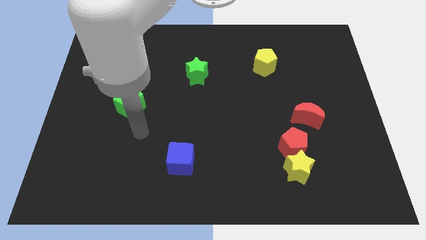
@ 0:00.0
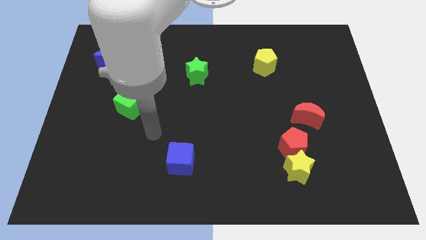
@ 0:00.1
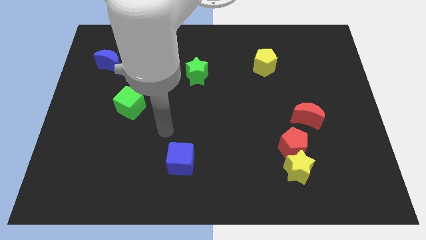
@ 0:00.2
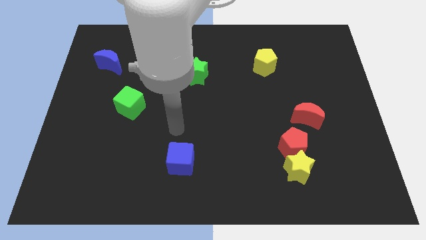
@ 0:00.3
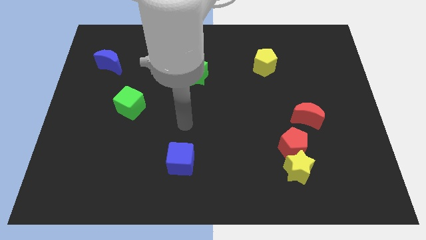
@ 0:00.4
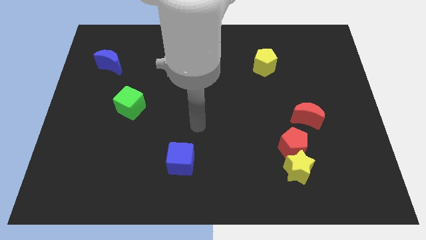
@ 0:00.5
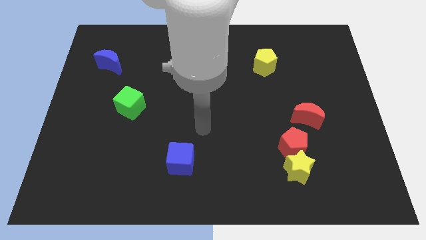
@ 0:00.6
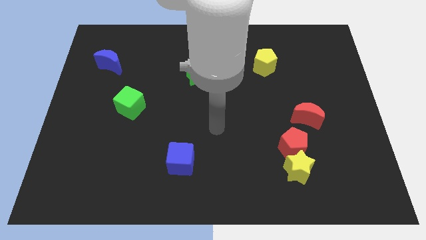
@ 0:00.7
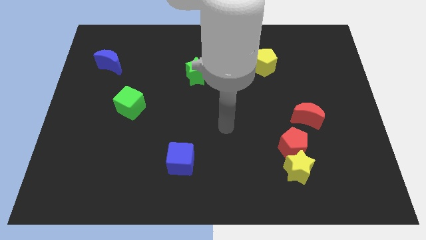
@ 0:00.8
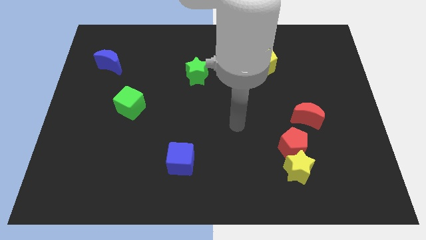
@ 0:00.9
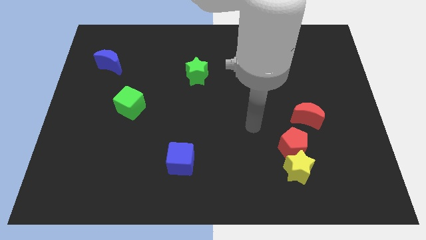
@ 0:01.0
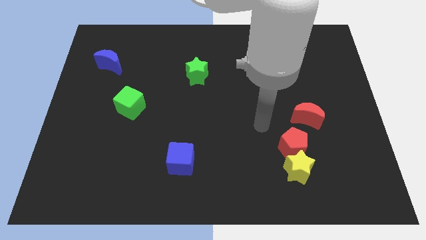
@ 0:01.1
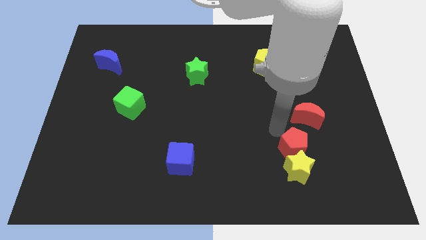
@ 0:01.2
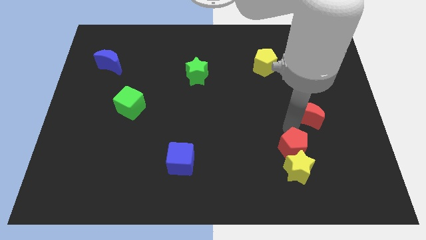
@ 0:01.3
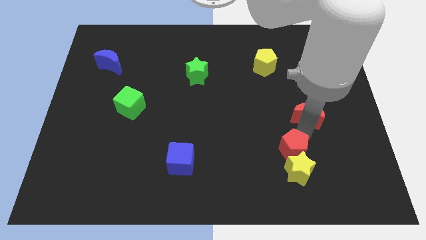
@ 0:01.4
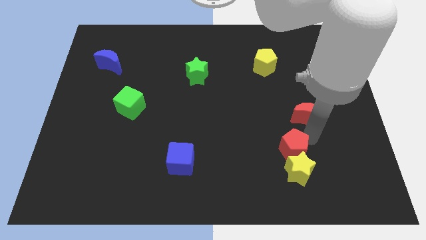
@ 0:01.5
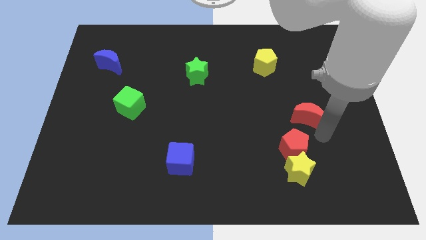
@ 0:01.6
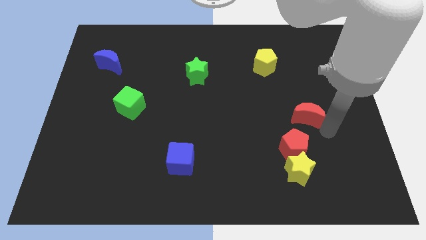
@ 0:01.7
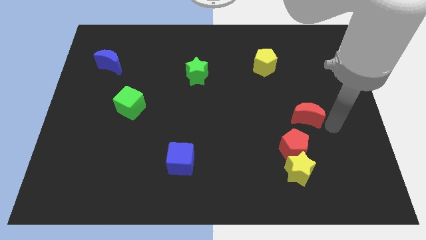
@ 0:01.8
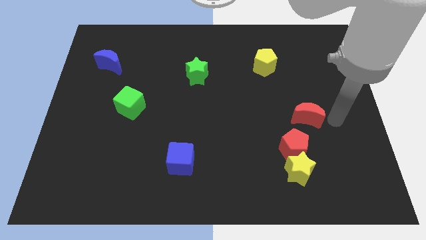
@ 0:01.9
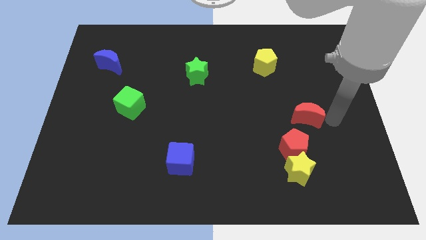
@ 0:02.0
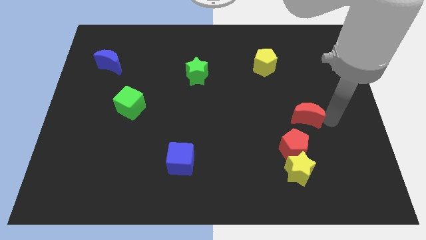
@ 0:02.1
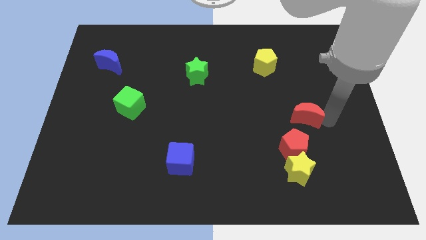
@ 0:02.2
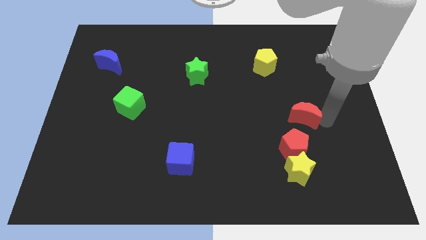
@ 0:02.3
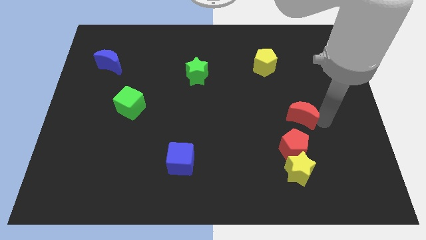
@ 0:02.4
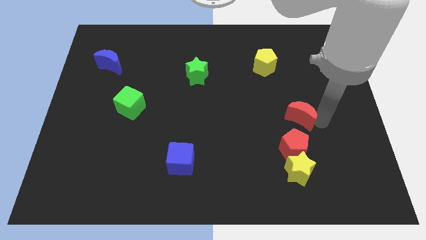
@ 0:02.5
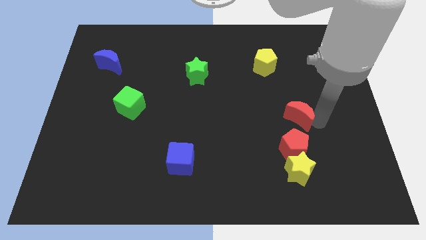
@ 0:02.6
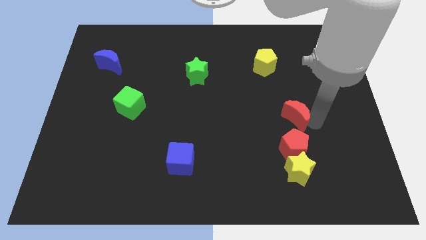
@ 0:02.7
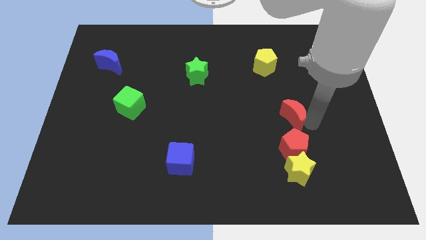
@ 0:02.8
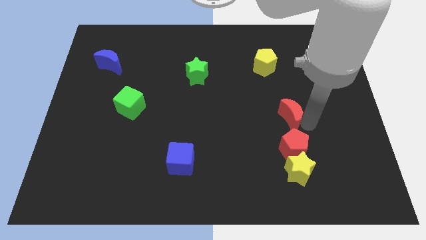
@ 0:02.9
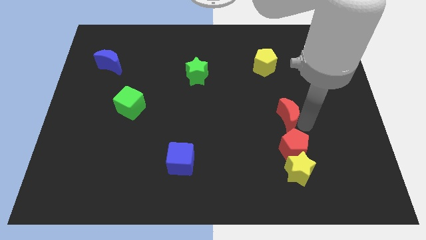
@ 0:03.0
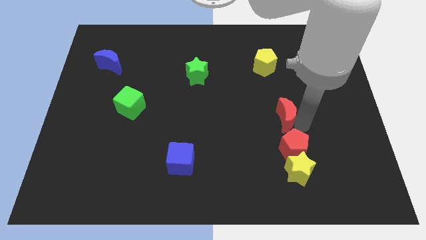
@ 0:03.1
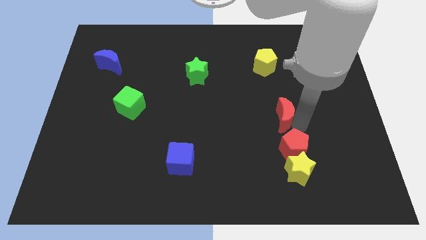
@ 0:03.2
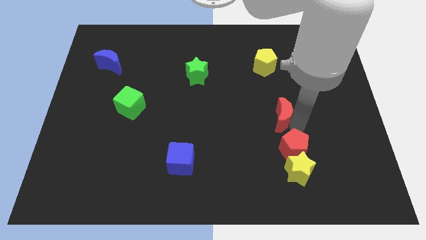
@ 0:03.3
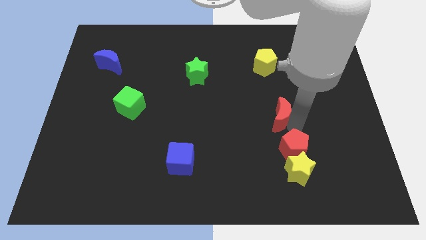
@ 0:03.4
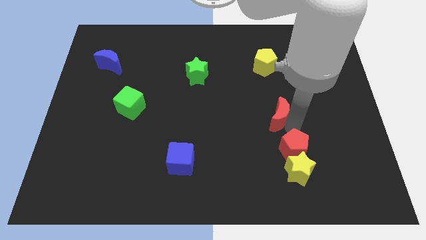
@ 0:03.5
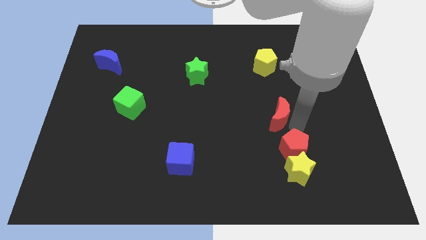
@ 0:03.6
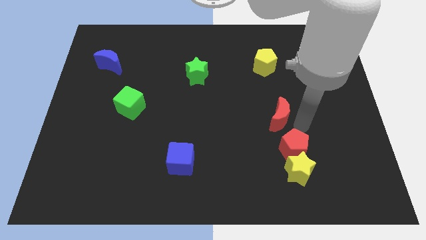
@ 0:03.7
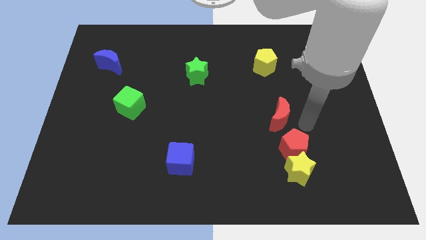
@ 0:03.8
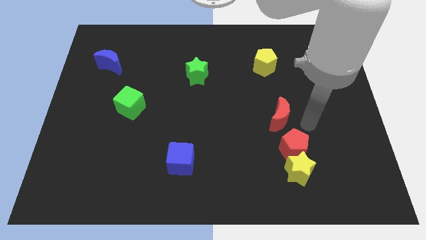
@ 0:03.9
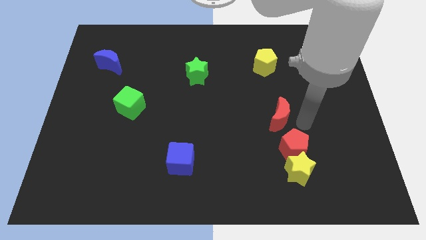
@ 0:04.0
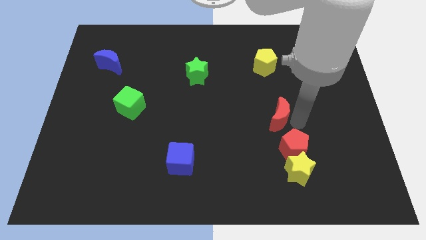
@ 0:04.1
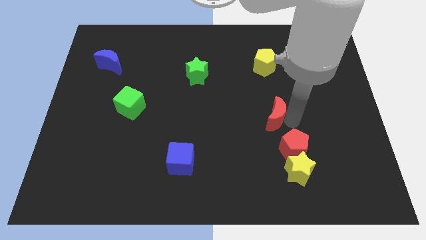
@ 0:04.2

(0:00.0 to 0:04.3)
move the red moon to the left a little bit

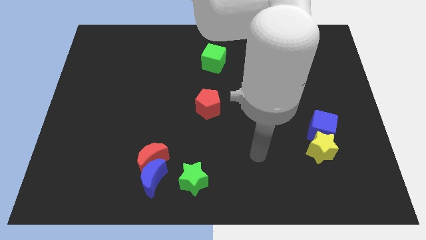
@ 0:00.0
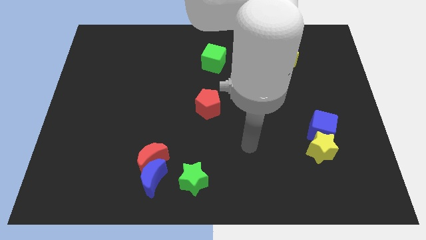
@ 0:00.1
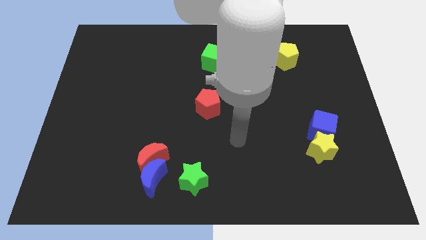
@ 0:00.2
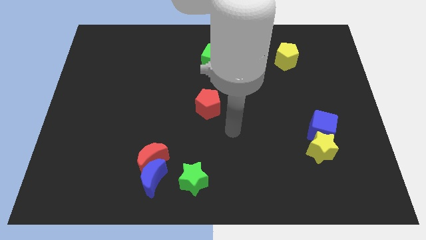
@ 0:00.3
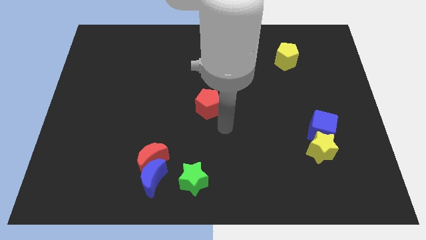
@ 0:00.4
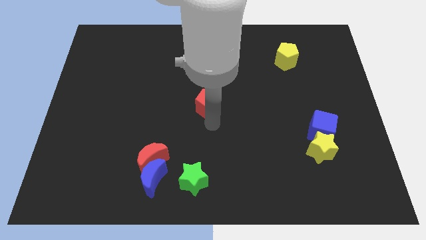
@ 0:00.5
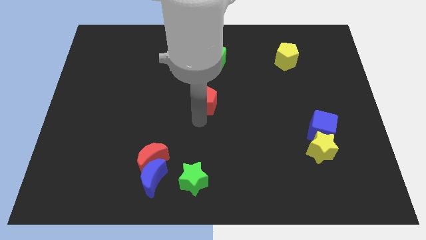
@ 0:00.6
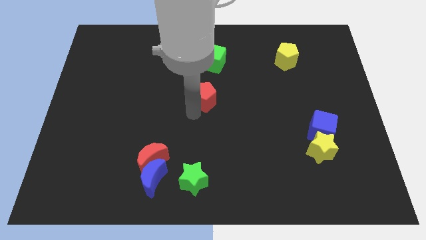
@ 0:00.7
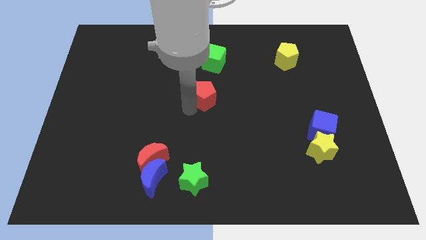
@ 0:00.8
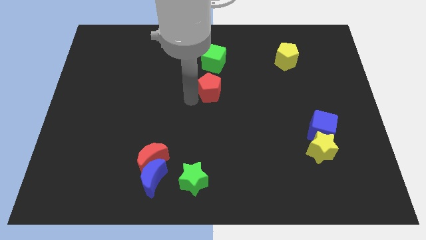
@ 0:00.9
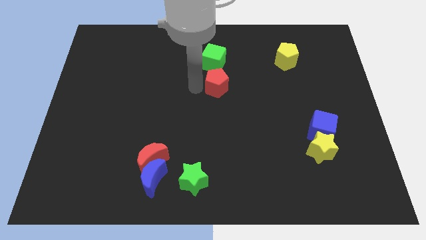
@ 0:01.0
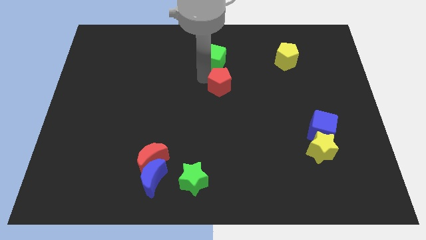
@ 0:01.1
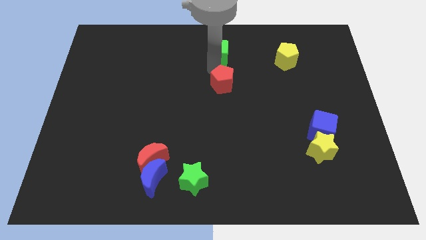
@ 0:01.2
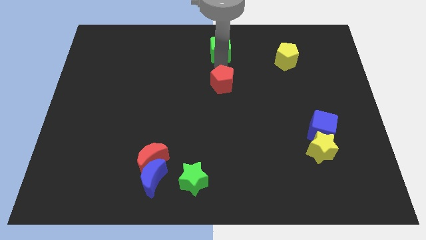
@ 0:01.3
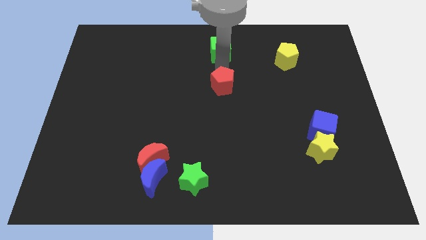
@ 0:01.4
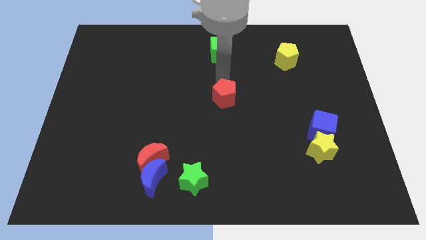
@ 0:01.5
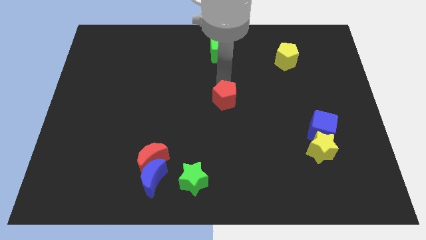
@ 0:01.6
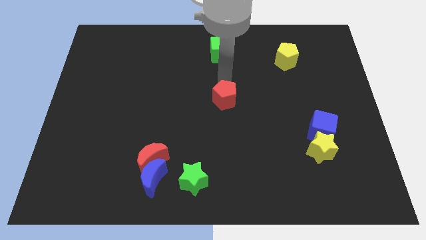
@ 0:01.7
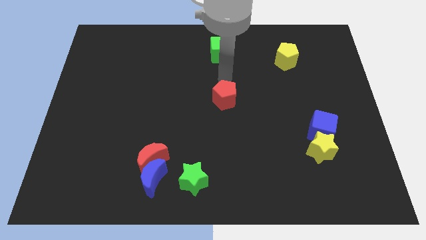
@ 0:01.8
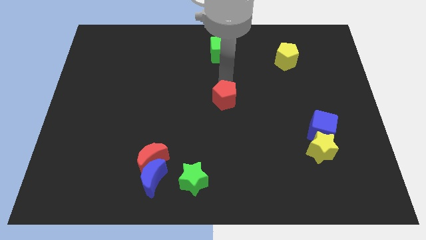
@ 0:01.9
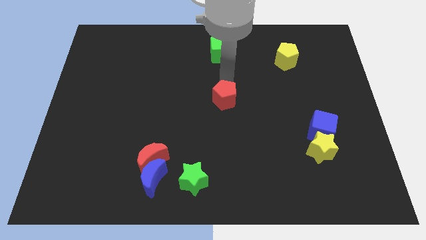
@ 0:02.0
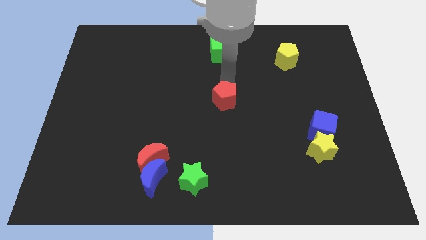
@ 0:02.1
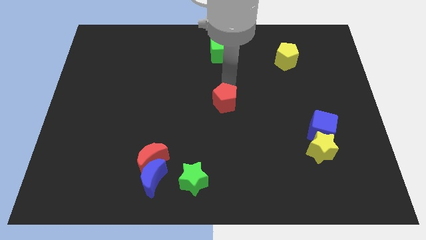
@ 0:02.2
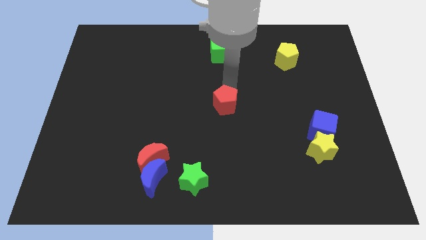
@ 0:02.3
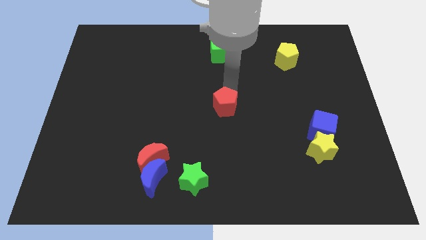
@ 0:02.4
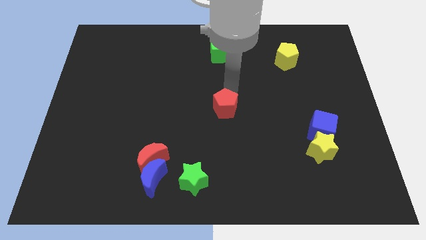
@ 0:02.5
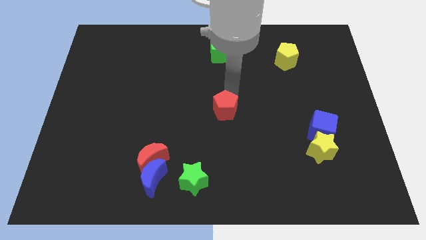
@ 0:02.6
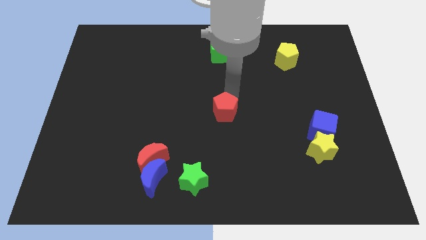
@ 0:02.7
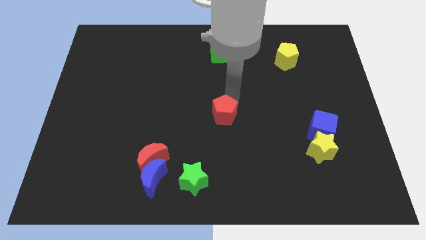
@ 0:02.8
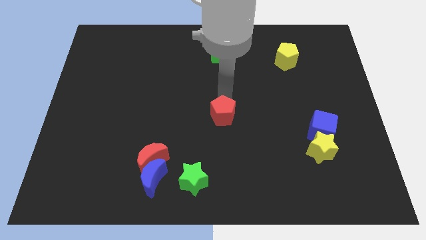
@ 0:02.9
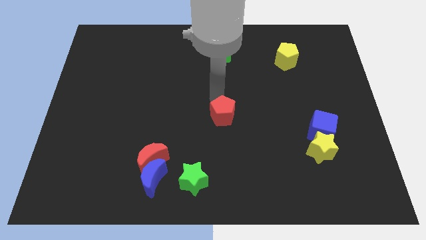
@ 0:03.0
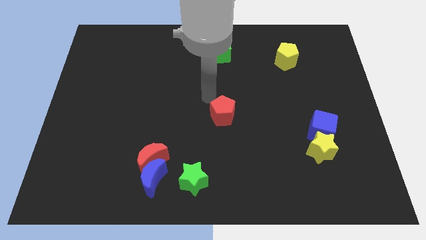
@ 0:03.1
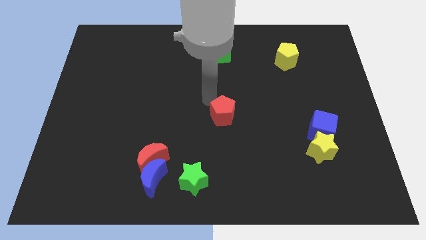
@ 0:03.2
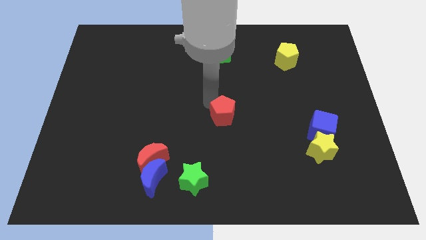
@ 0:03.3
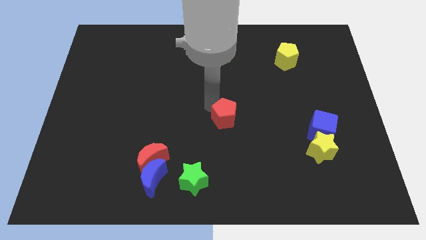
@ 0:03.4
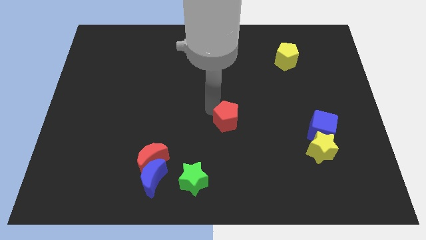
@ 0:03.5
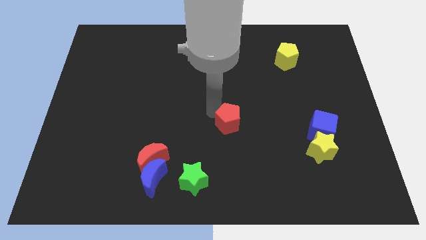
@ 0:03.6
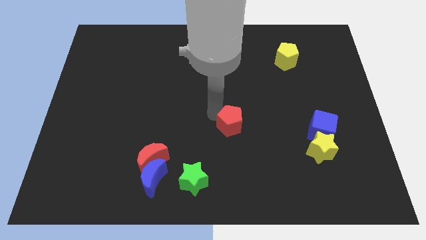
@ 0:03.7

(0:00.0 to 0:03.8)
push the red pentagon down and then to the right a little bit
